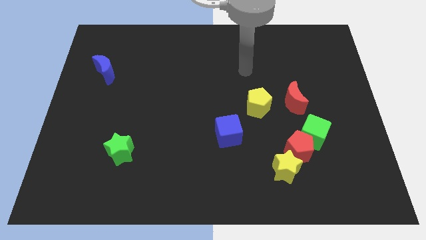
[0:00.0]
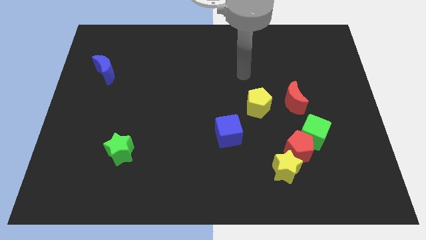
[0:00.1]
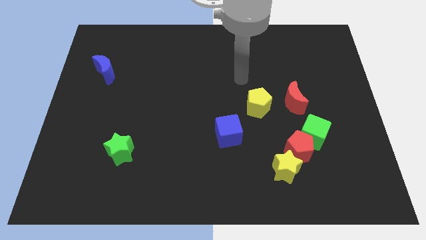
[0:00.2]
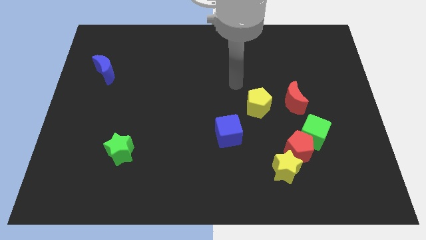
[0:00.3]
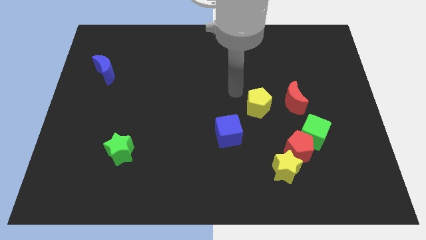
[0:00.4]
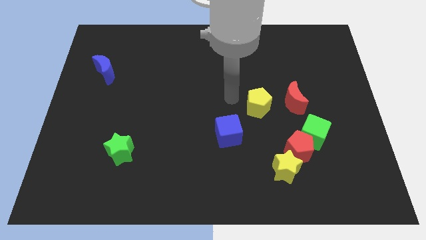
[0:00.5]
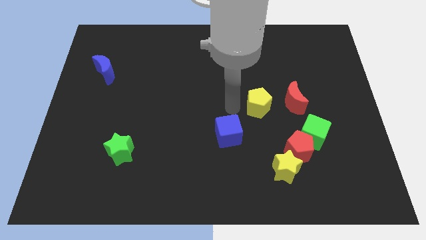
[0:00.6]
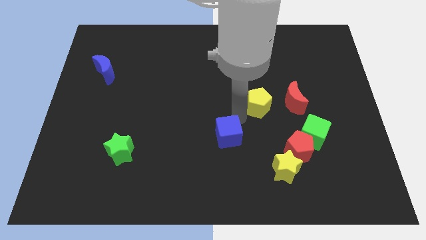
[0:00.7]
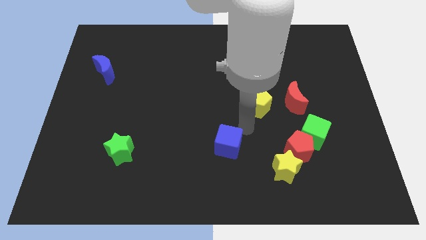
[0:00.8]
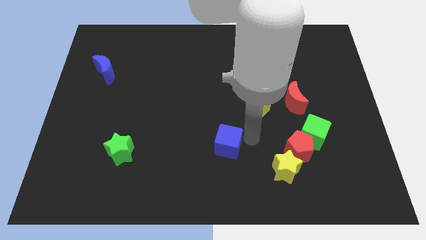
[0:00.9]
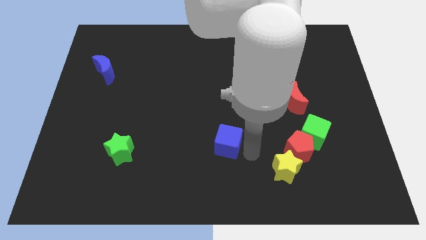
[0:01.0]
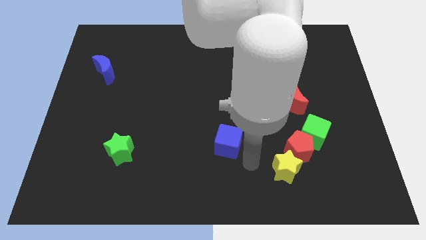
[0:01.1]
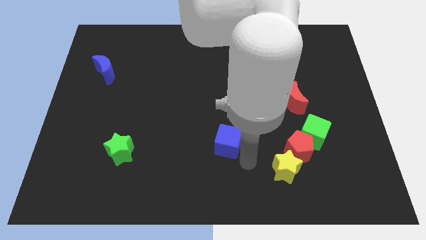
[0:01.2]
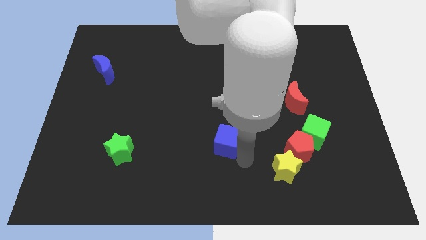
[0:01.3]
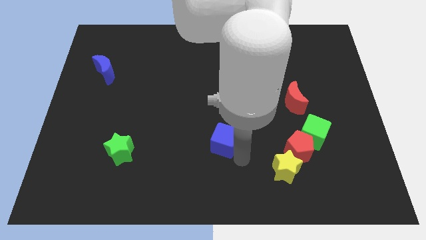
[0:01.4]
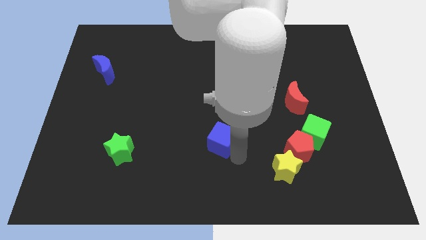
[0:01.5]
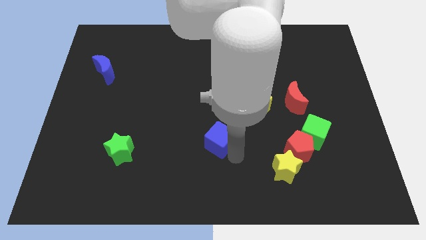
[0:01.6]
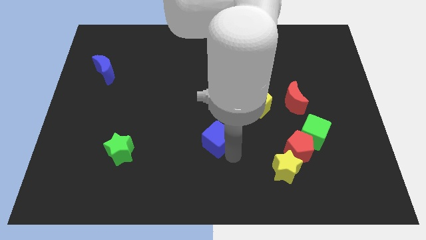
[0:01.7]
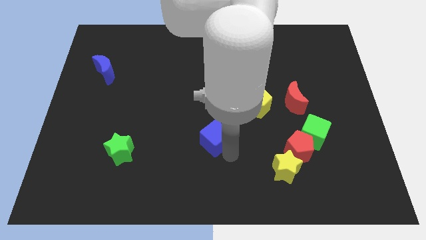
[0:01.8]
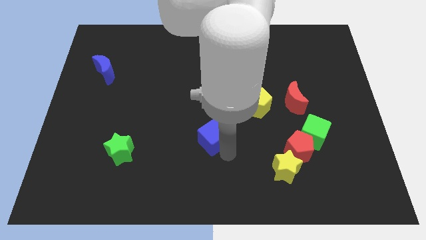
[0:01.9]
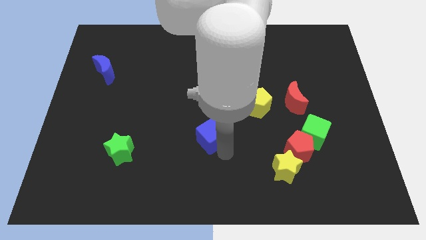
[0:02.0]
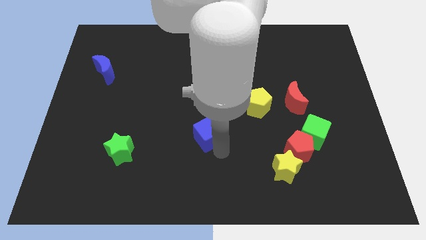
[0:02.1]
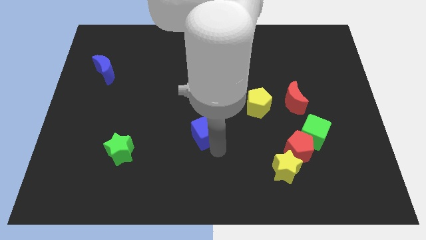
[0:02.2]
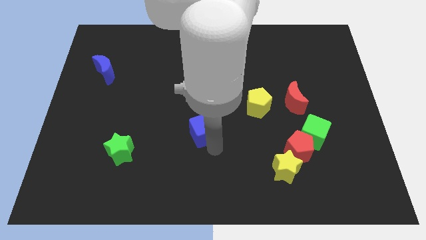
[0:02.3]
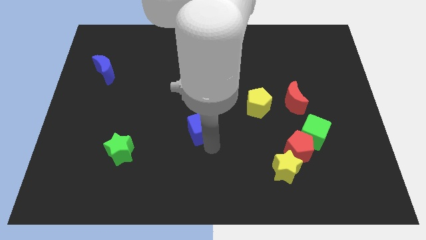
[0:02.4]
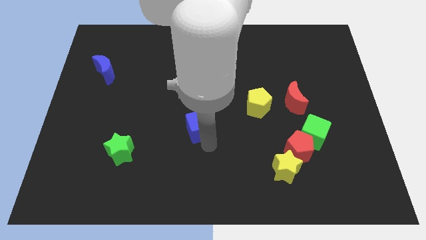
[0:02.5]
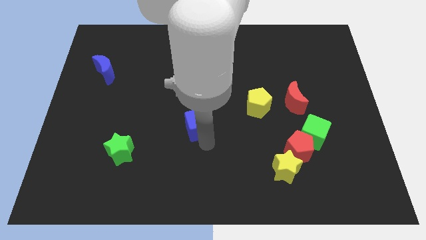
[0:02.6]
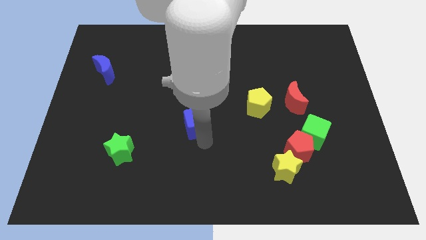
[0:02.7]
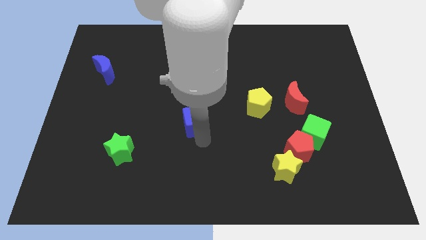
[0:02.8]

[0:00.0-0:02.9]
slightly move the blue cube upwards and then left

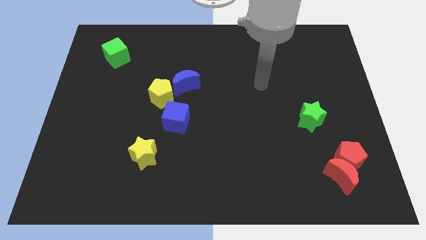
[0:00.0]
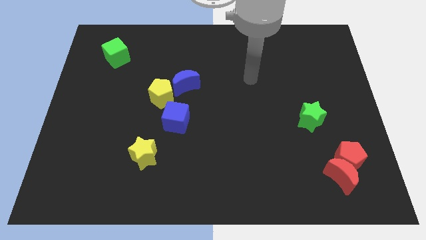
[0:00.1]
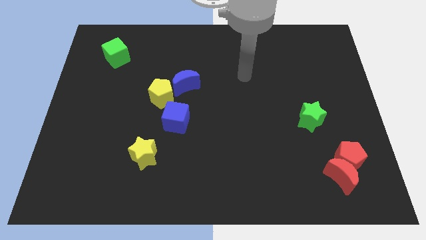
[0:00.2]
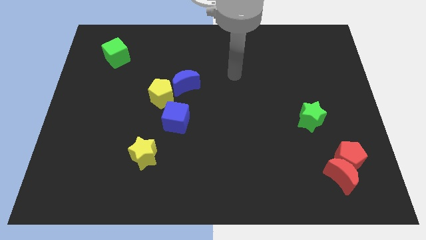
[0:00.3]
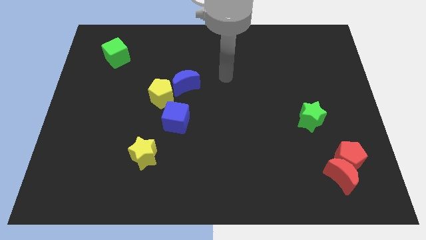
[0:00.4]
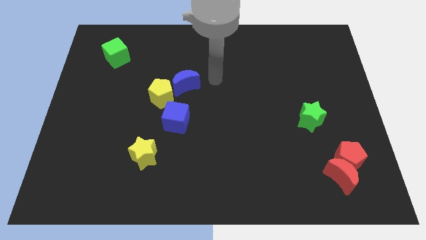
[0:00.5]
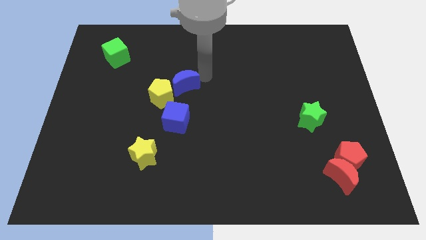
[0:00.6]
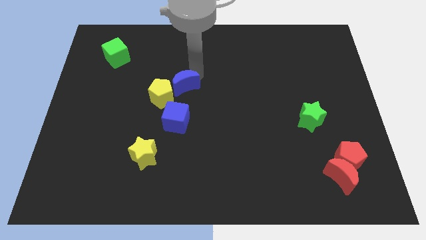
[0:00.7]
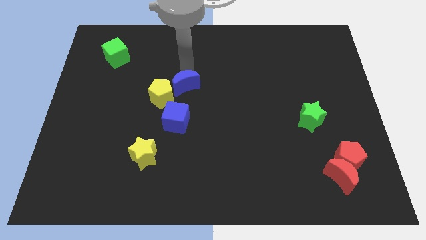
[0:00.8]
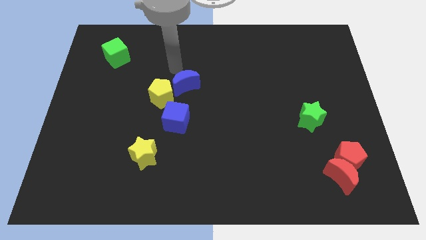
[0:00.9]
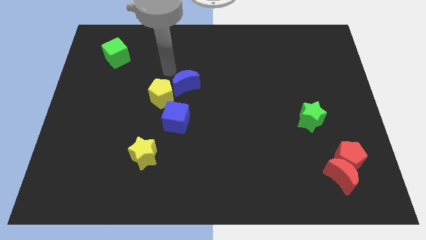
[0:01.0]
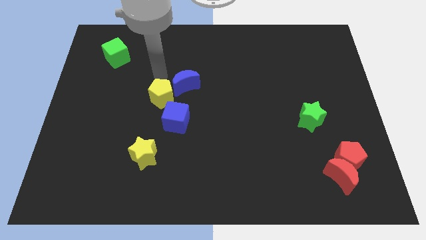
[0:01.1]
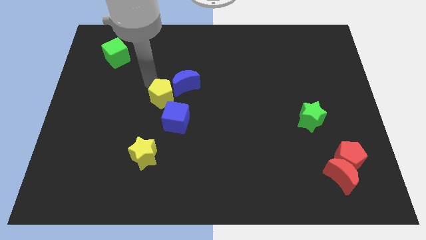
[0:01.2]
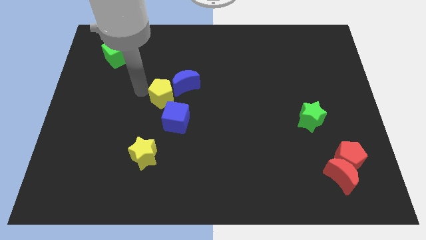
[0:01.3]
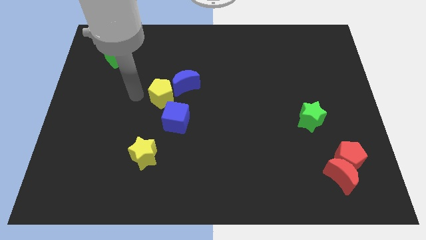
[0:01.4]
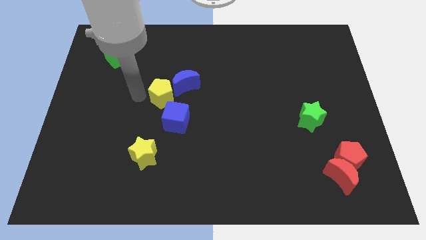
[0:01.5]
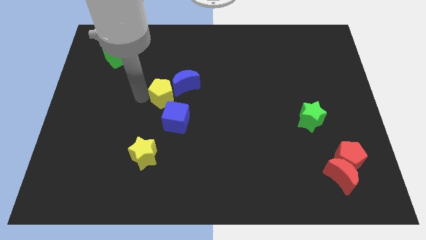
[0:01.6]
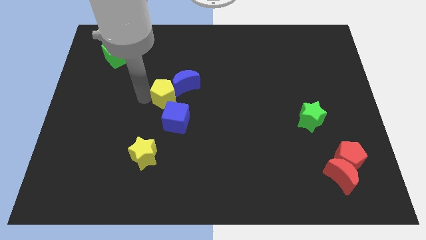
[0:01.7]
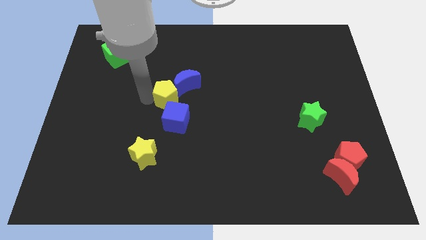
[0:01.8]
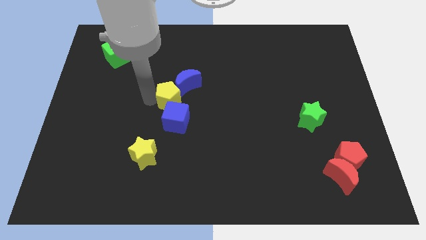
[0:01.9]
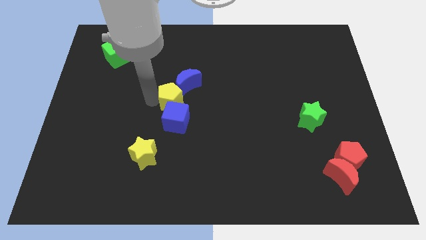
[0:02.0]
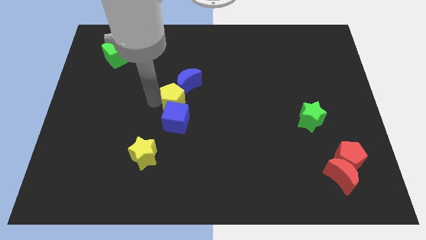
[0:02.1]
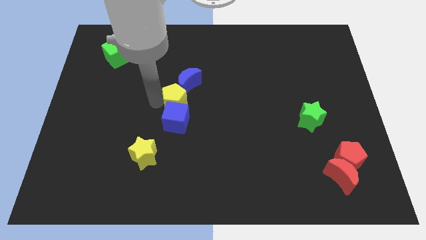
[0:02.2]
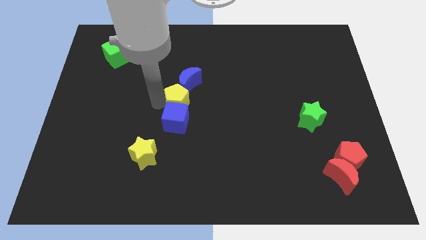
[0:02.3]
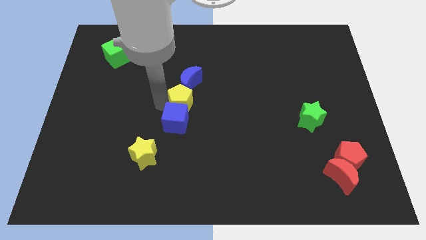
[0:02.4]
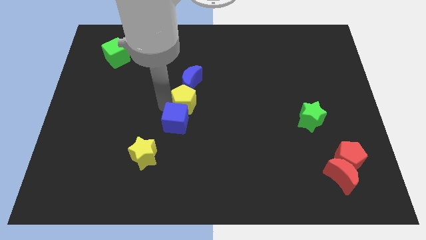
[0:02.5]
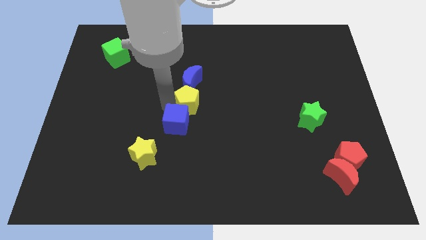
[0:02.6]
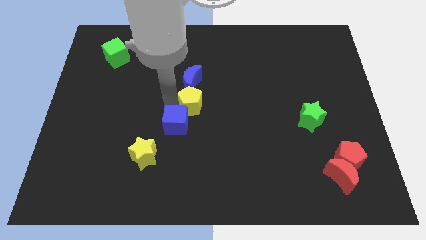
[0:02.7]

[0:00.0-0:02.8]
push the yellow pentagon a little to the right

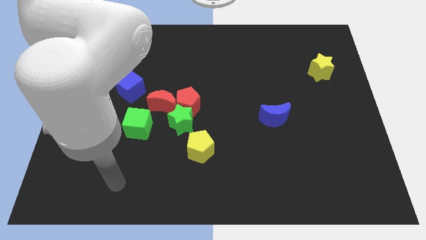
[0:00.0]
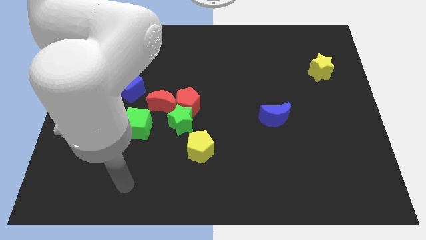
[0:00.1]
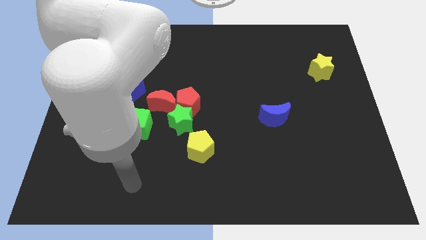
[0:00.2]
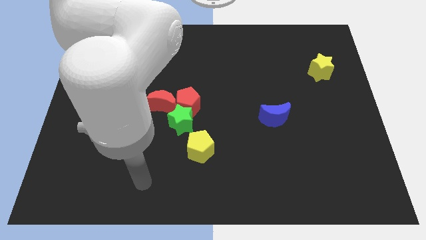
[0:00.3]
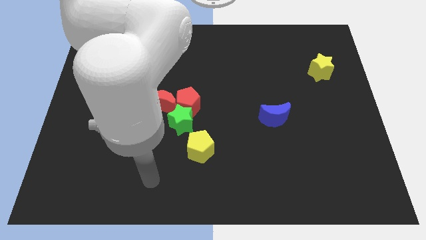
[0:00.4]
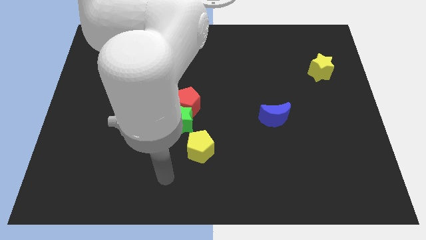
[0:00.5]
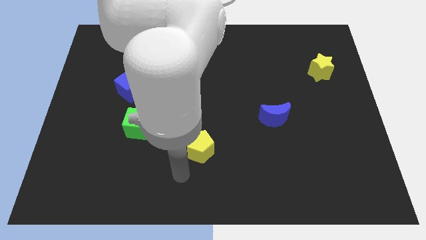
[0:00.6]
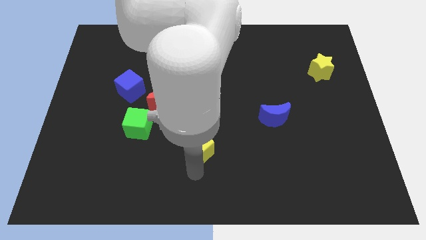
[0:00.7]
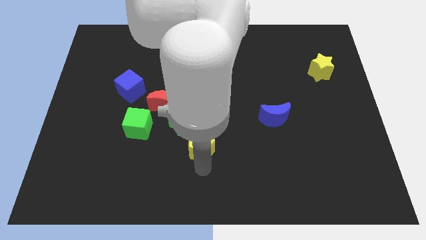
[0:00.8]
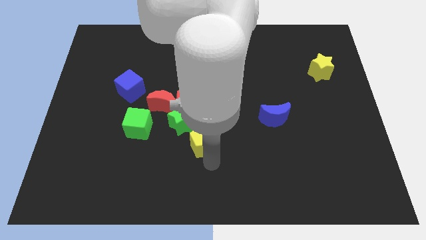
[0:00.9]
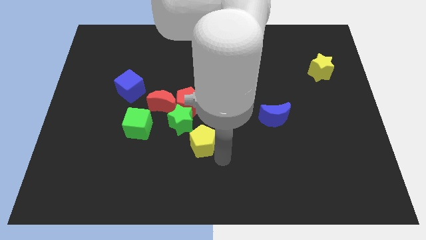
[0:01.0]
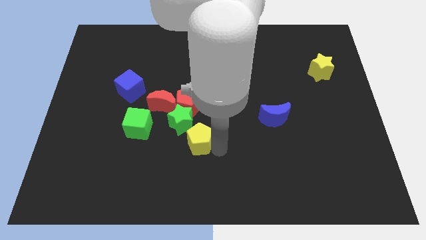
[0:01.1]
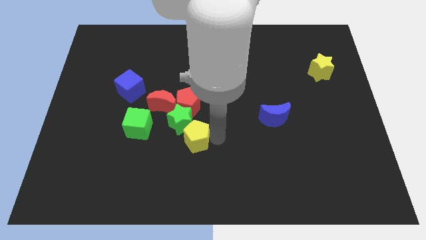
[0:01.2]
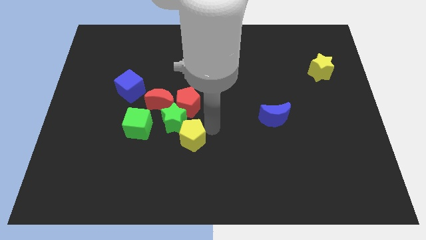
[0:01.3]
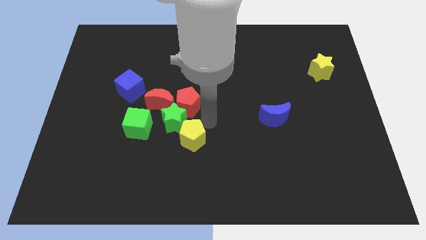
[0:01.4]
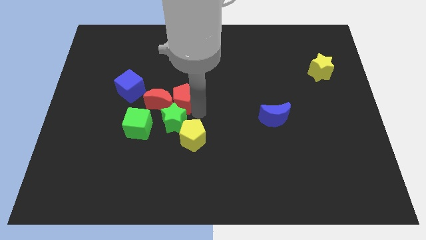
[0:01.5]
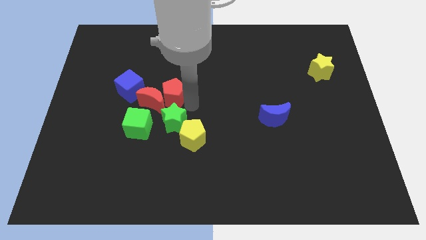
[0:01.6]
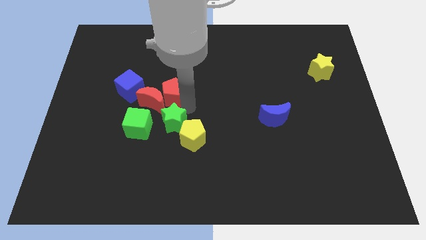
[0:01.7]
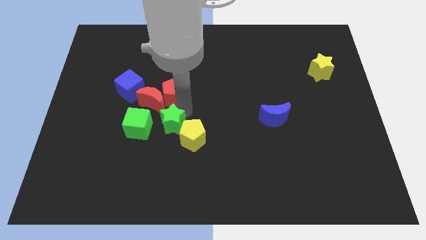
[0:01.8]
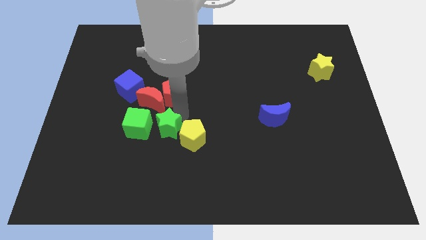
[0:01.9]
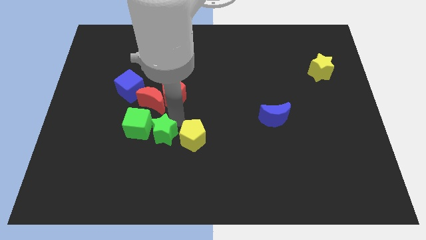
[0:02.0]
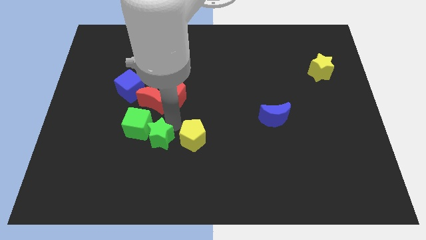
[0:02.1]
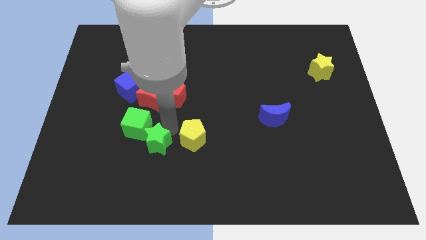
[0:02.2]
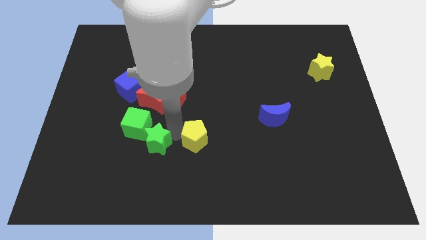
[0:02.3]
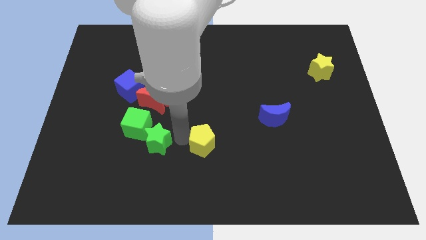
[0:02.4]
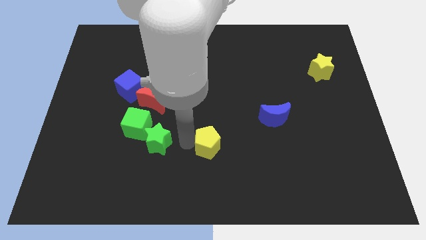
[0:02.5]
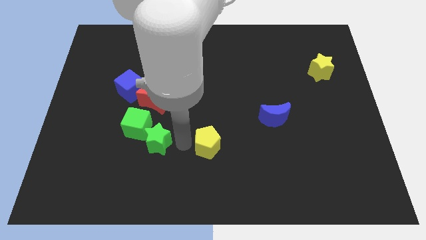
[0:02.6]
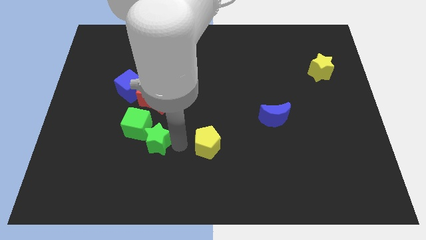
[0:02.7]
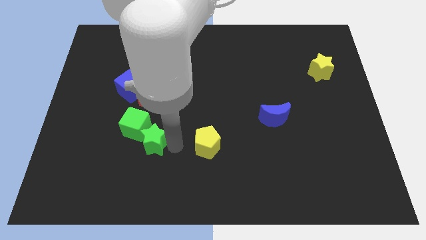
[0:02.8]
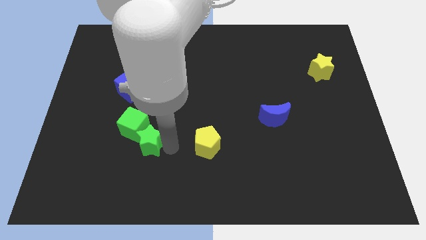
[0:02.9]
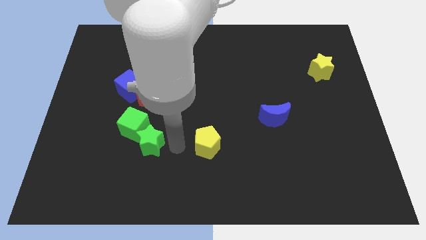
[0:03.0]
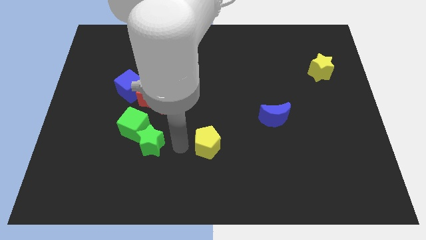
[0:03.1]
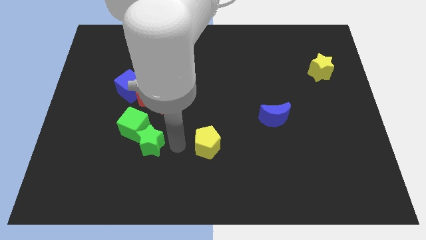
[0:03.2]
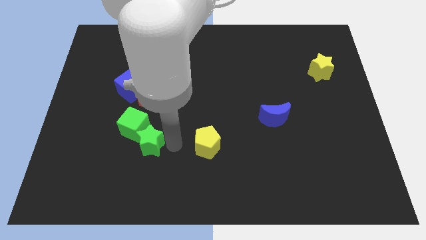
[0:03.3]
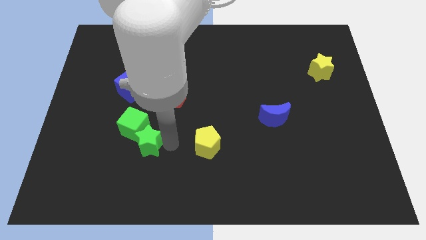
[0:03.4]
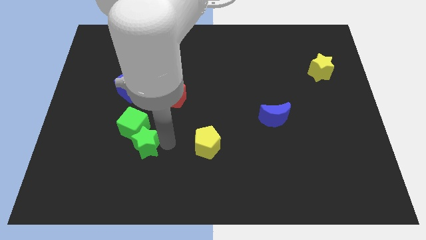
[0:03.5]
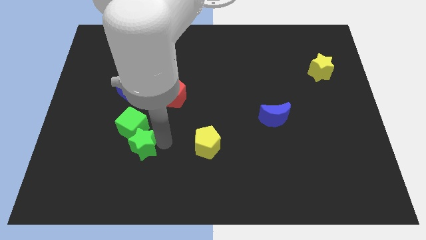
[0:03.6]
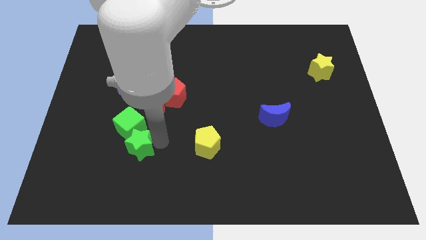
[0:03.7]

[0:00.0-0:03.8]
move the green star slightly to the left
